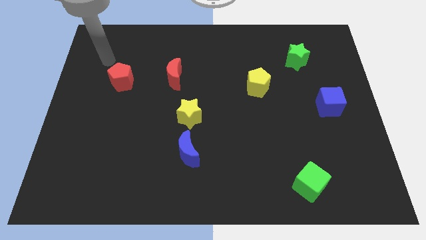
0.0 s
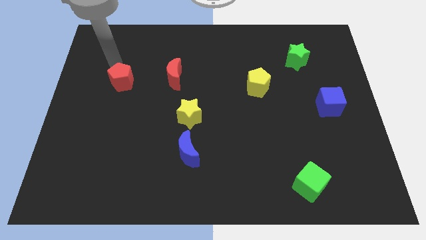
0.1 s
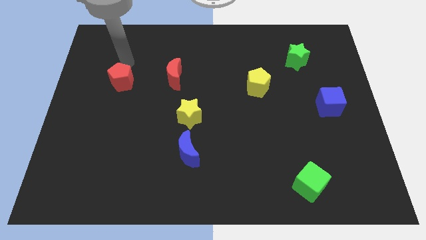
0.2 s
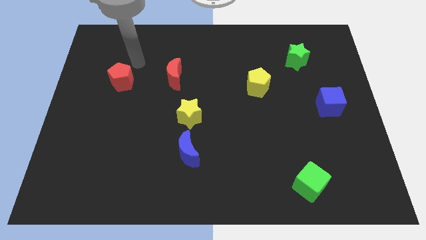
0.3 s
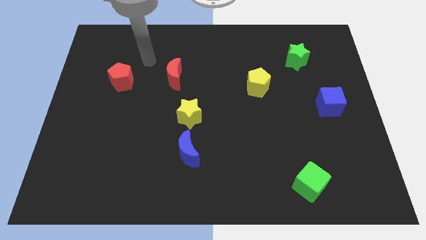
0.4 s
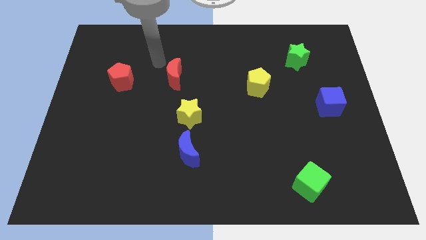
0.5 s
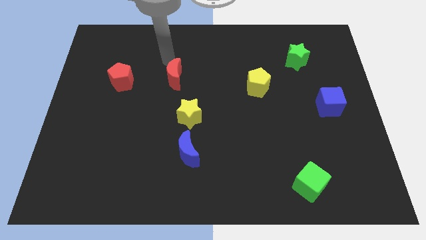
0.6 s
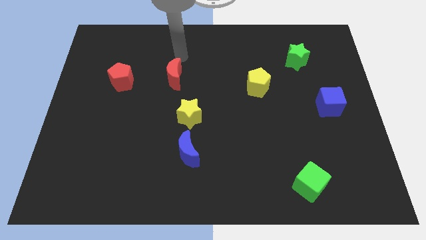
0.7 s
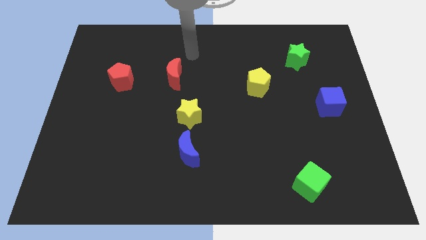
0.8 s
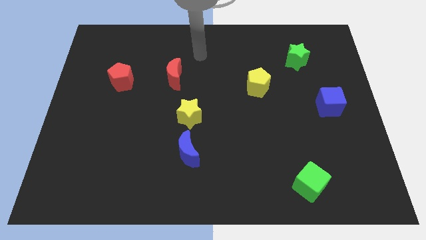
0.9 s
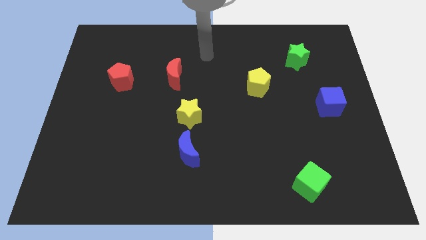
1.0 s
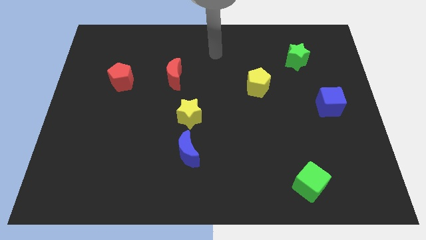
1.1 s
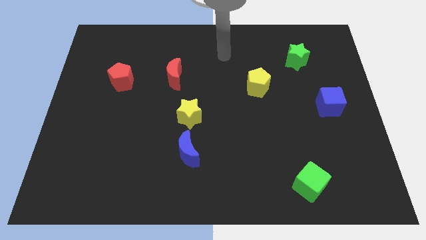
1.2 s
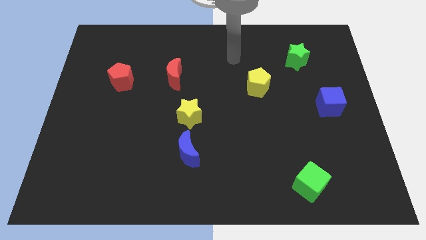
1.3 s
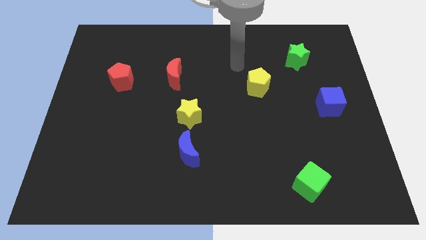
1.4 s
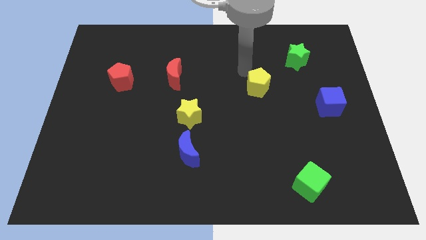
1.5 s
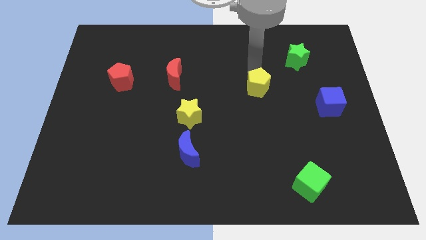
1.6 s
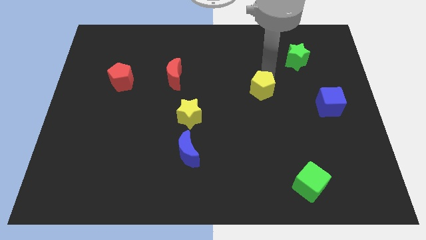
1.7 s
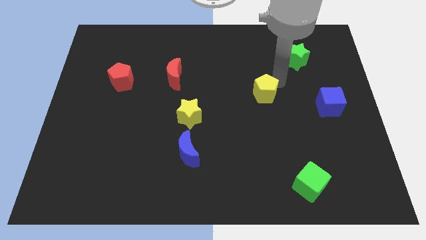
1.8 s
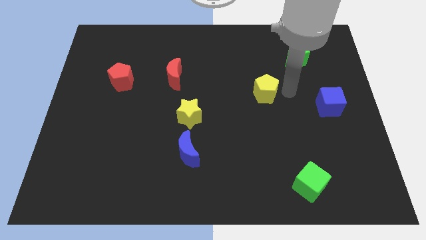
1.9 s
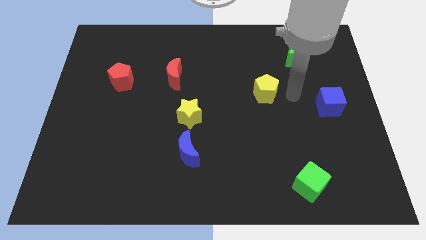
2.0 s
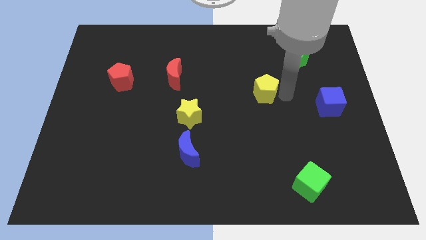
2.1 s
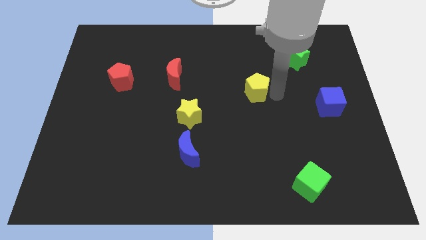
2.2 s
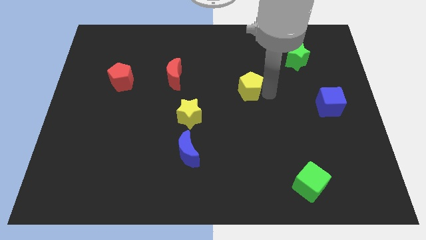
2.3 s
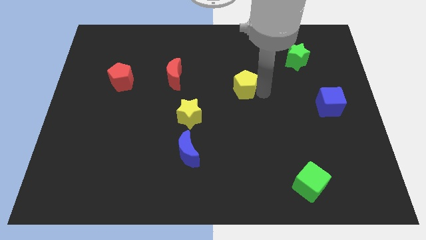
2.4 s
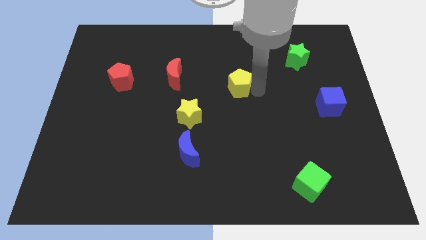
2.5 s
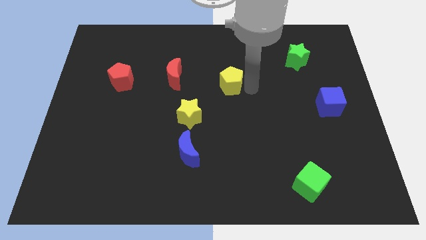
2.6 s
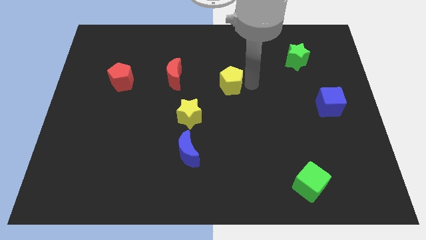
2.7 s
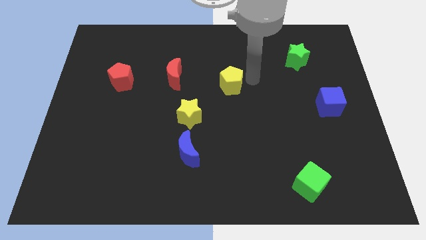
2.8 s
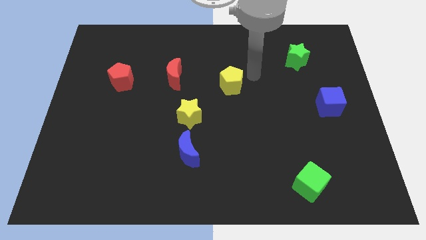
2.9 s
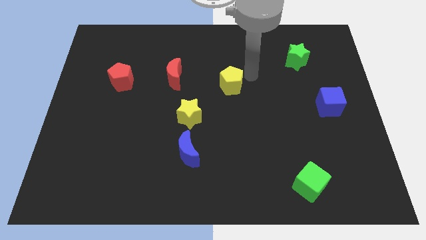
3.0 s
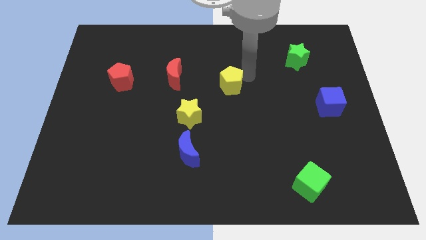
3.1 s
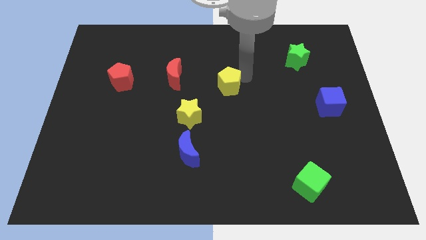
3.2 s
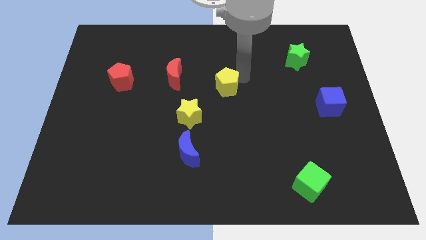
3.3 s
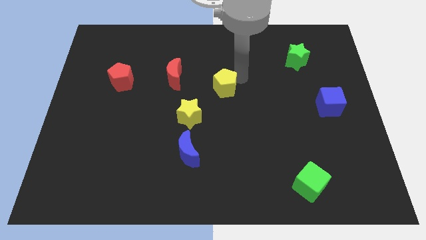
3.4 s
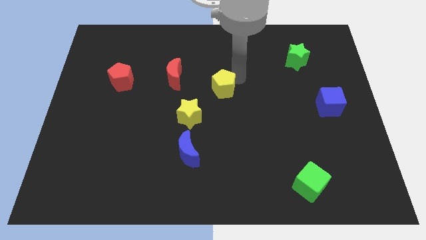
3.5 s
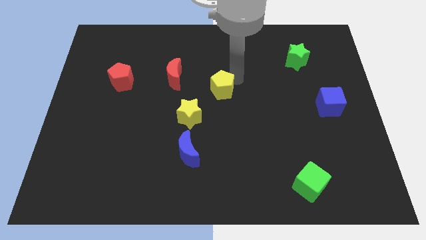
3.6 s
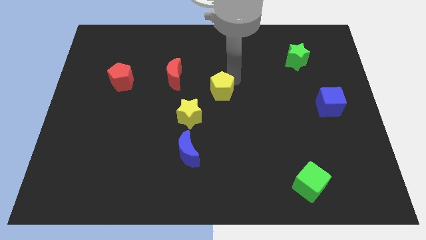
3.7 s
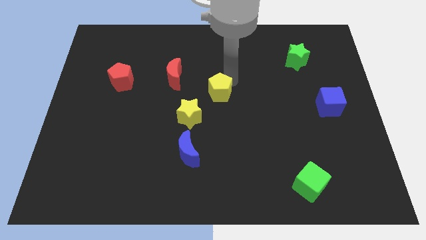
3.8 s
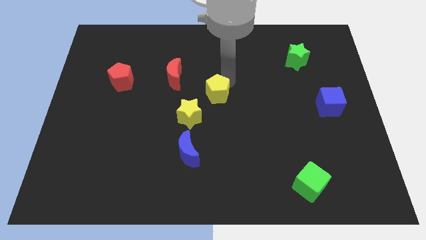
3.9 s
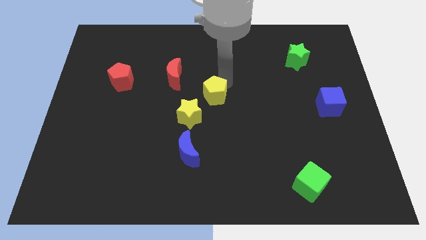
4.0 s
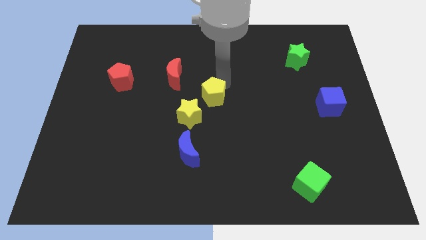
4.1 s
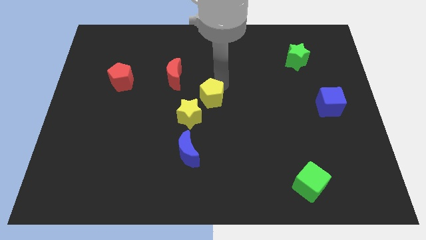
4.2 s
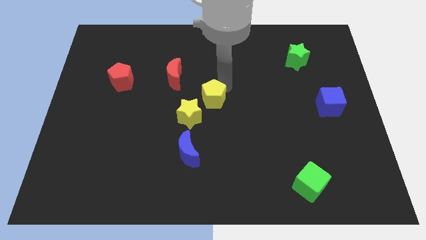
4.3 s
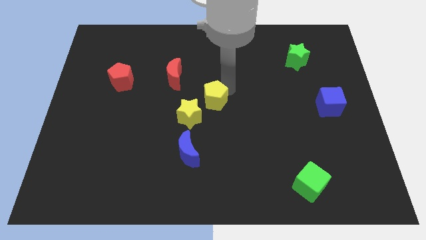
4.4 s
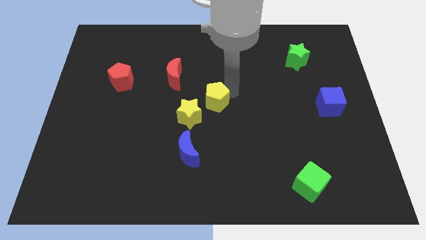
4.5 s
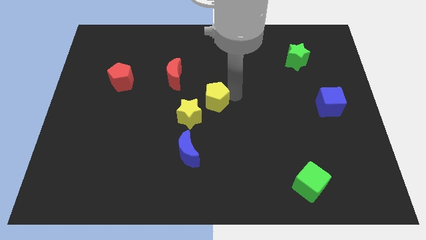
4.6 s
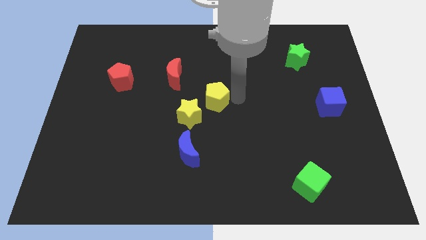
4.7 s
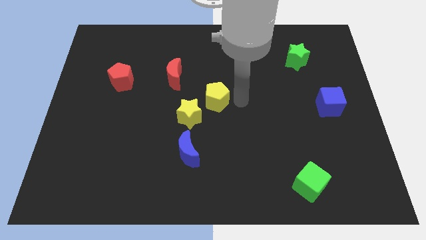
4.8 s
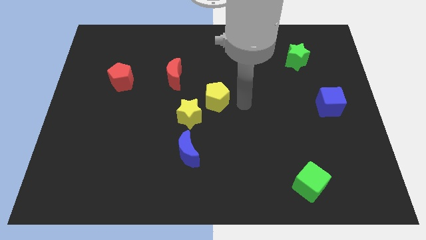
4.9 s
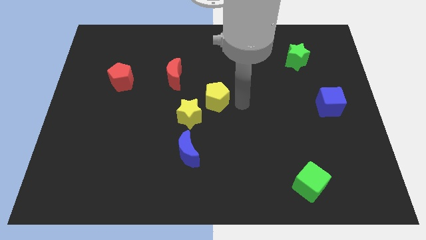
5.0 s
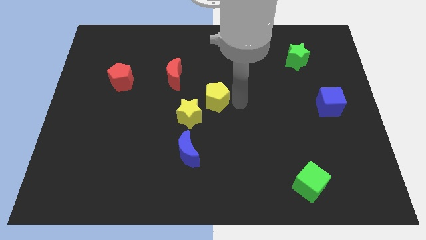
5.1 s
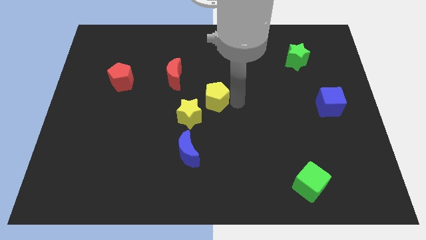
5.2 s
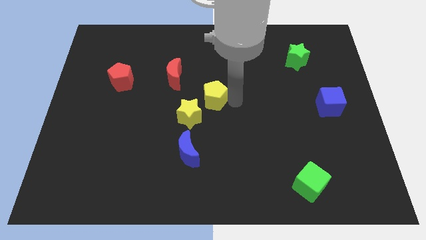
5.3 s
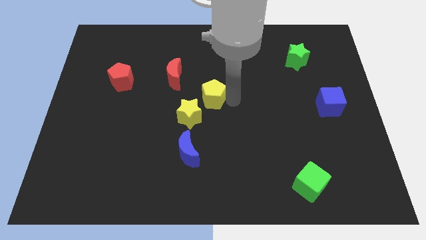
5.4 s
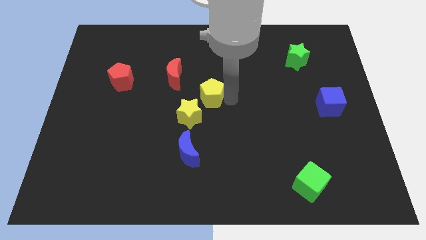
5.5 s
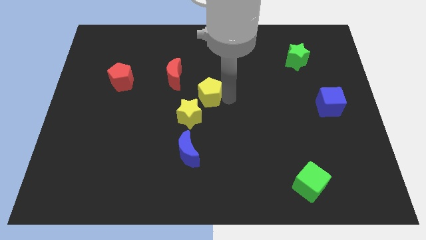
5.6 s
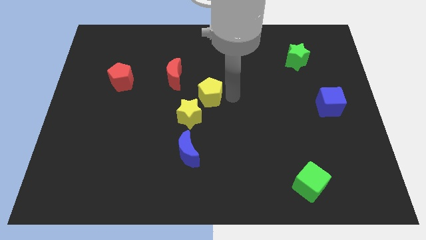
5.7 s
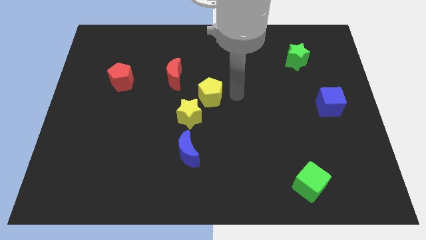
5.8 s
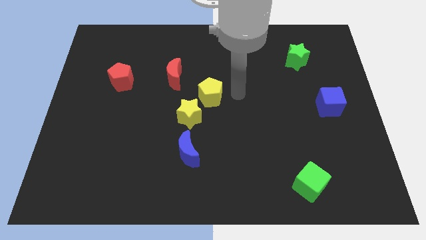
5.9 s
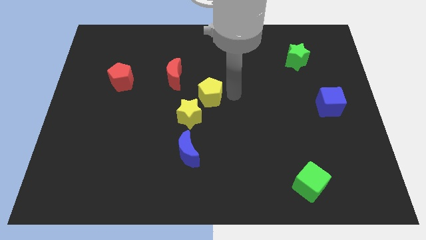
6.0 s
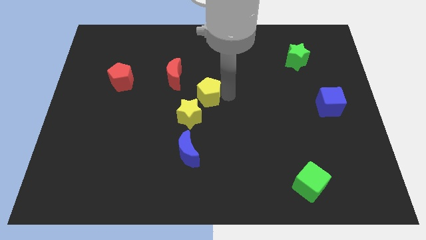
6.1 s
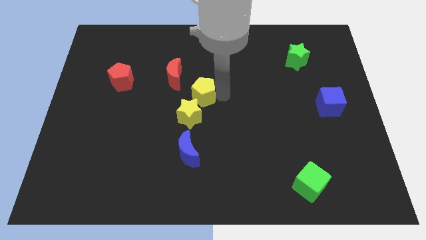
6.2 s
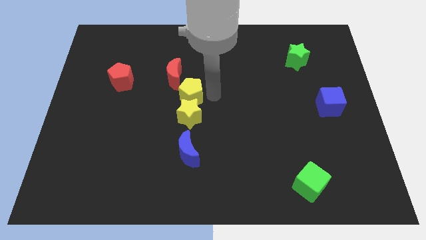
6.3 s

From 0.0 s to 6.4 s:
push the yellow pentagon diagonally up and to the left of the yellow star

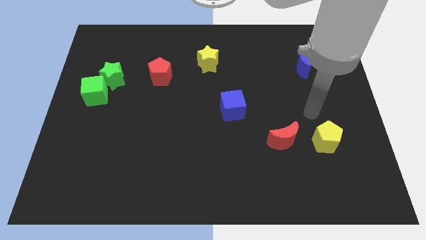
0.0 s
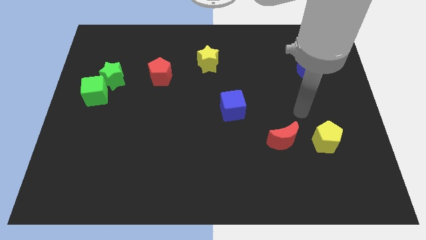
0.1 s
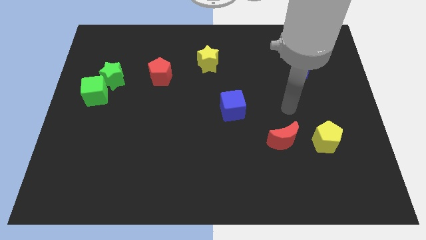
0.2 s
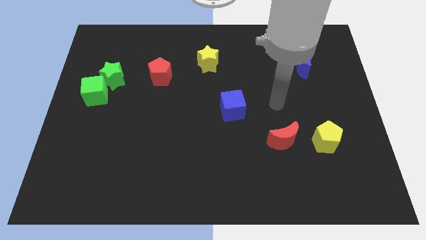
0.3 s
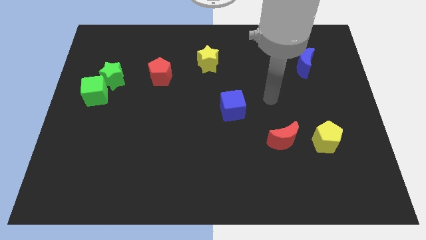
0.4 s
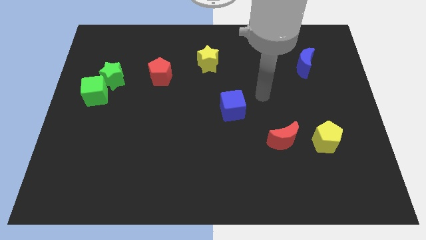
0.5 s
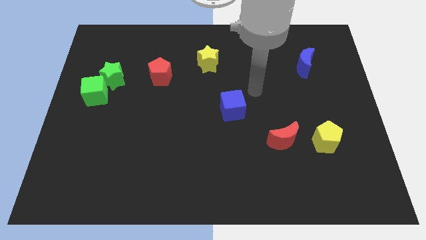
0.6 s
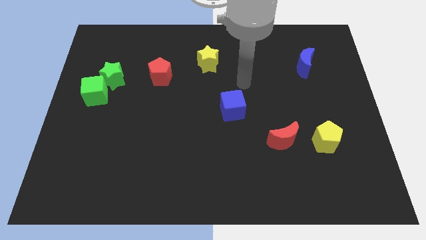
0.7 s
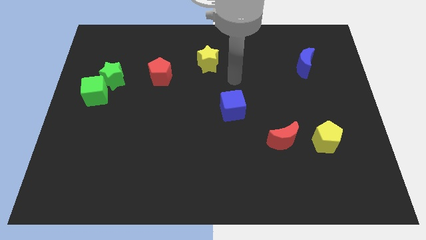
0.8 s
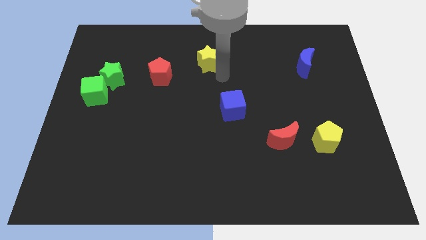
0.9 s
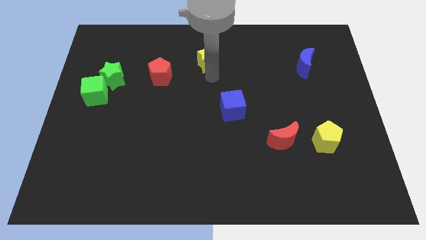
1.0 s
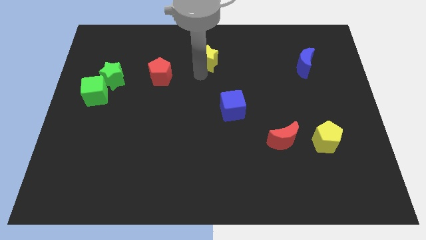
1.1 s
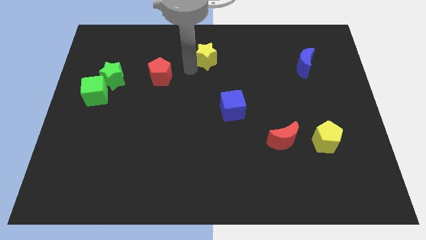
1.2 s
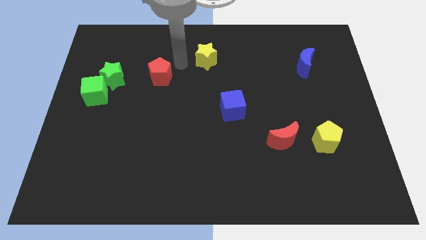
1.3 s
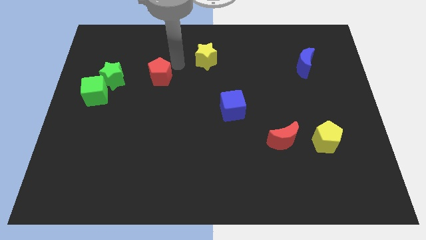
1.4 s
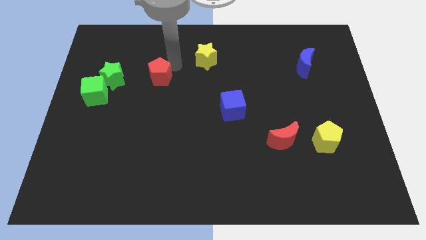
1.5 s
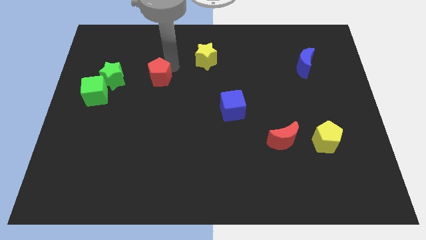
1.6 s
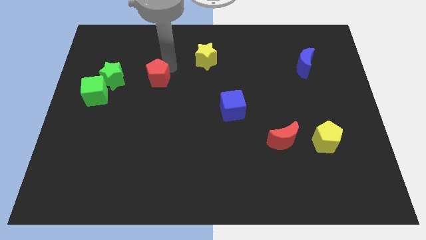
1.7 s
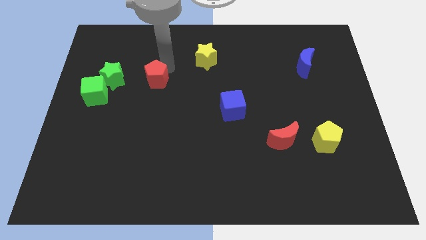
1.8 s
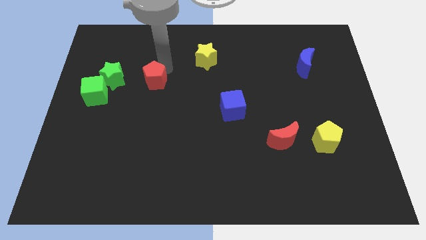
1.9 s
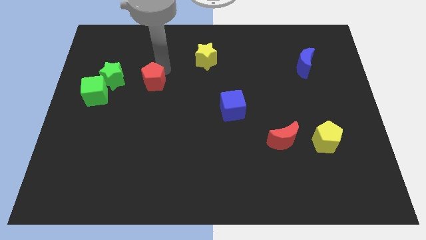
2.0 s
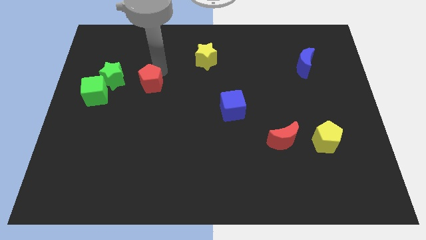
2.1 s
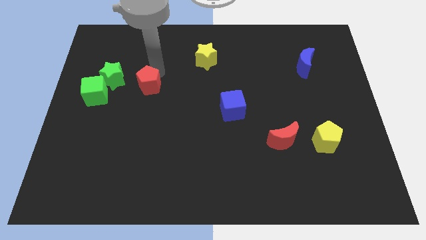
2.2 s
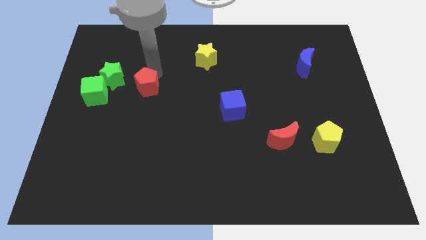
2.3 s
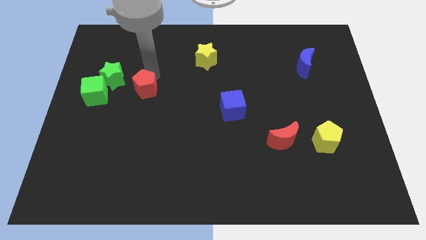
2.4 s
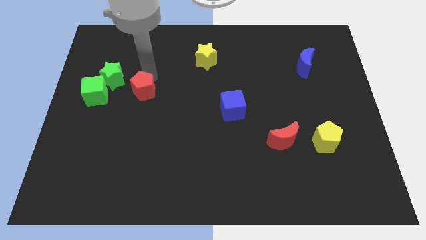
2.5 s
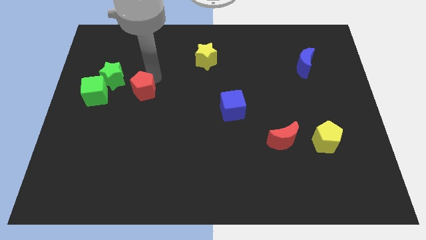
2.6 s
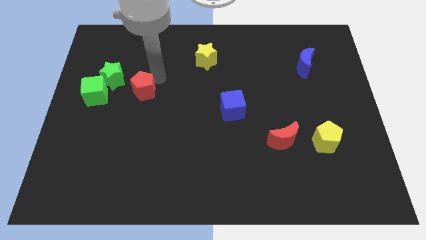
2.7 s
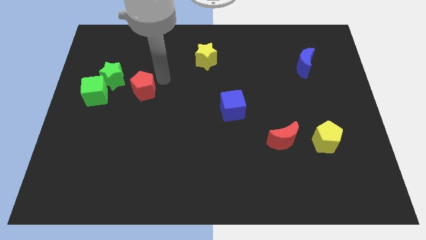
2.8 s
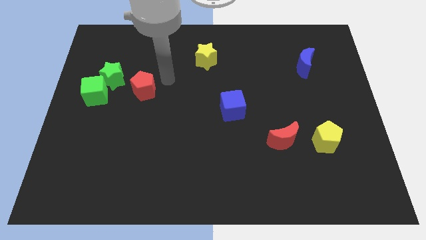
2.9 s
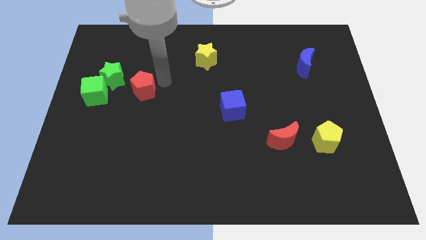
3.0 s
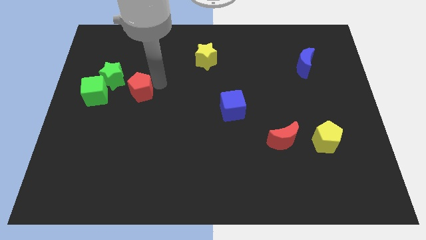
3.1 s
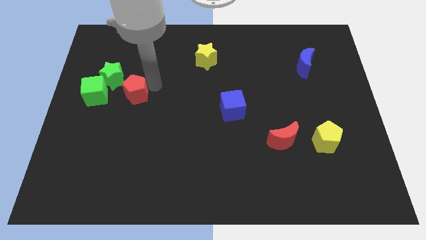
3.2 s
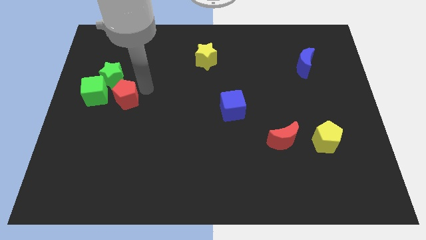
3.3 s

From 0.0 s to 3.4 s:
push the red pentagon to the bottom side of the green star
